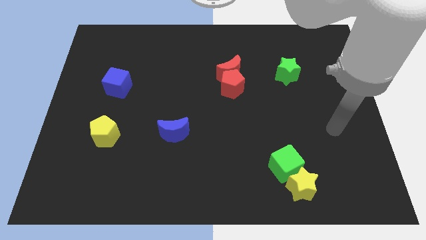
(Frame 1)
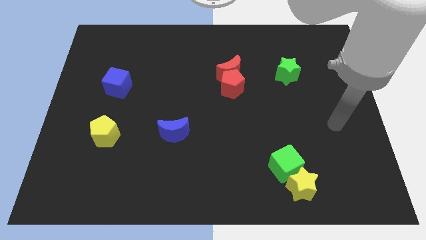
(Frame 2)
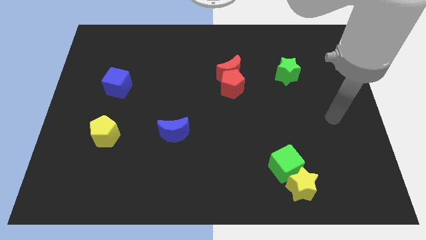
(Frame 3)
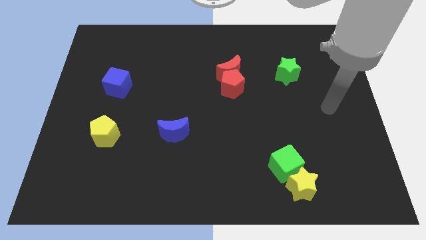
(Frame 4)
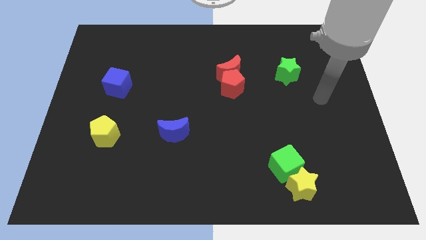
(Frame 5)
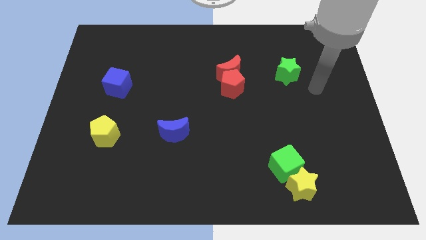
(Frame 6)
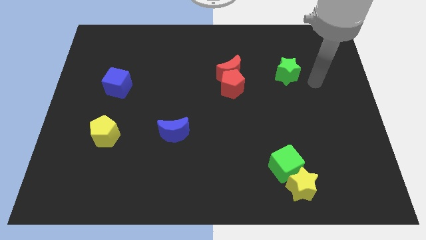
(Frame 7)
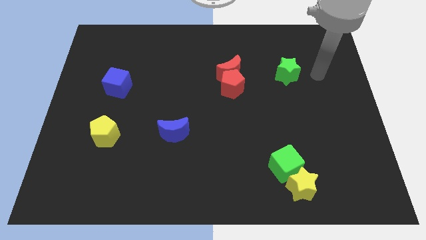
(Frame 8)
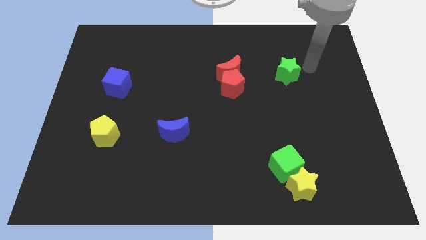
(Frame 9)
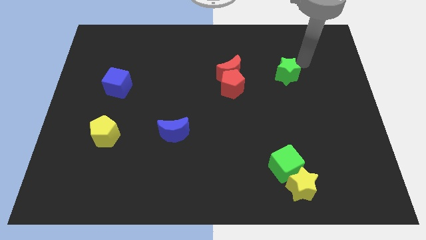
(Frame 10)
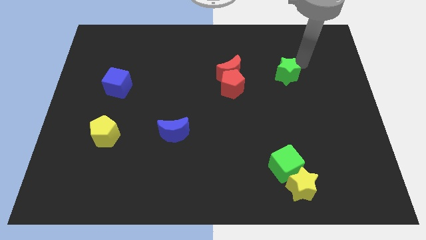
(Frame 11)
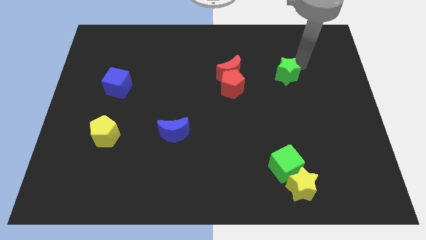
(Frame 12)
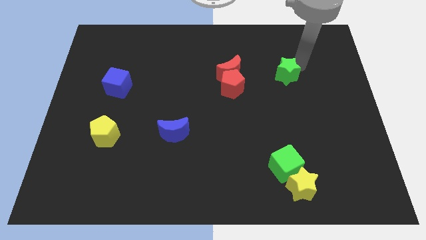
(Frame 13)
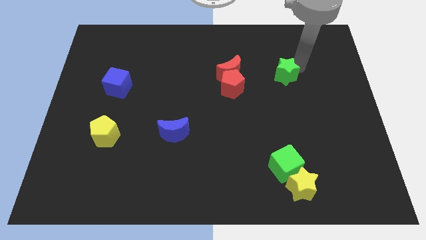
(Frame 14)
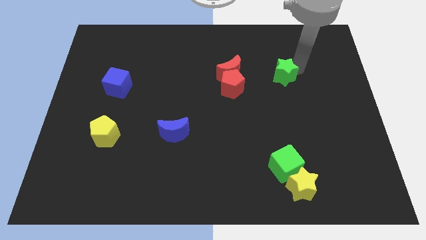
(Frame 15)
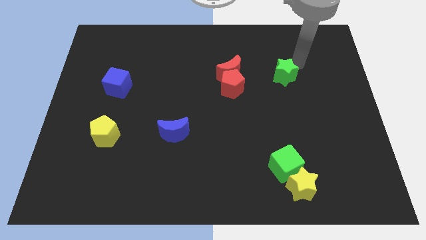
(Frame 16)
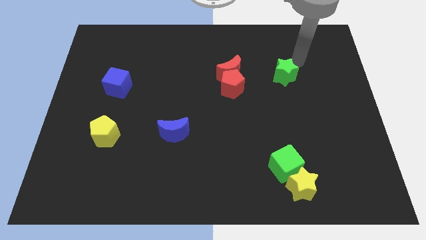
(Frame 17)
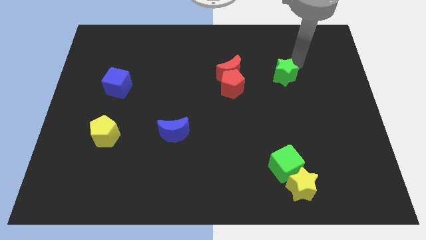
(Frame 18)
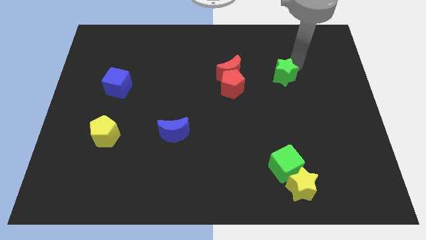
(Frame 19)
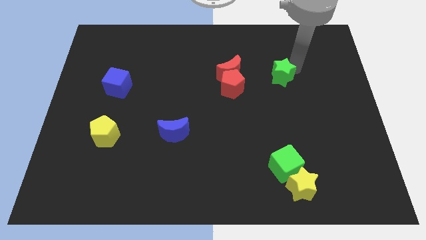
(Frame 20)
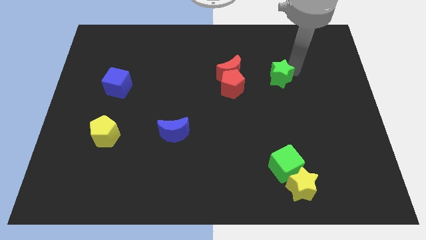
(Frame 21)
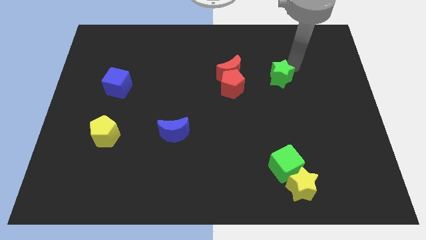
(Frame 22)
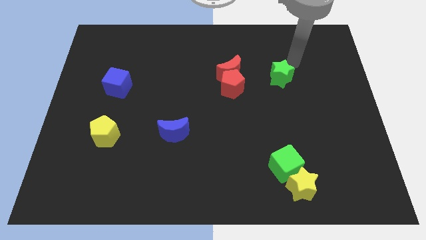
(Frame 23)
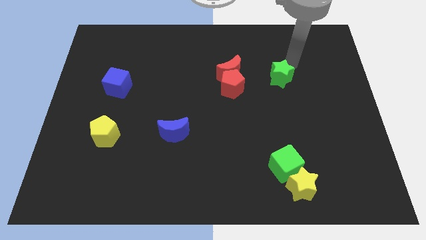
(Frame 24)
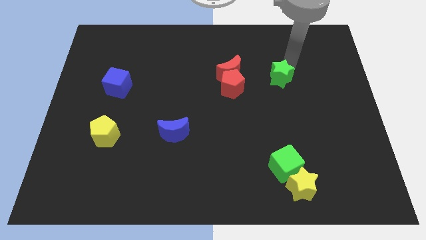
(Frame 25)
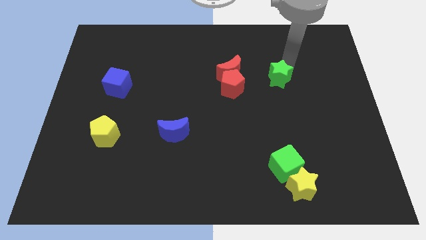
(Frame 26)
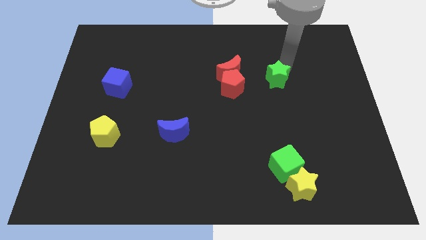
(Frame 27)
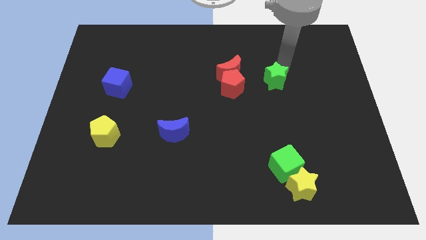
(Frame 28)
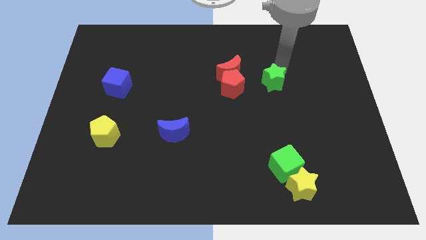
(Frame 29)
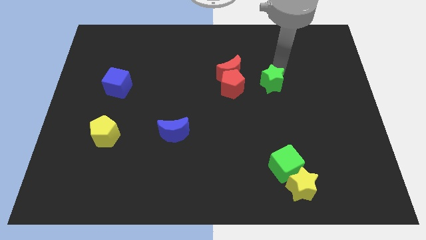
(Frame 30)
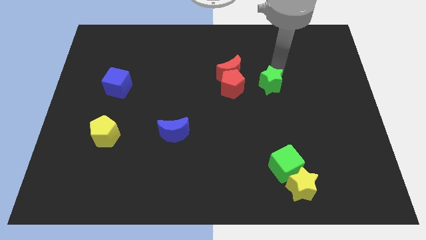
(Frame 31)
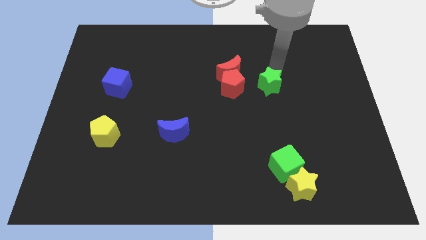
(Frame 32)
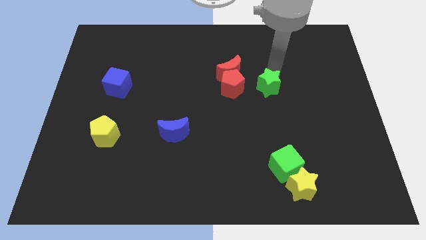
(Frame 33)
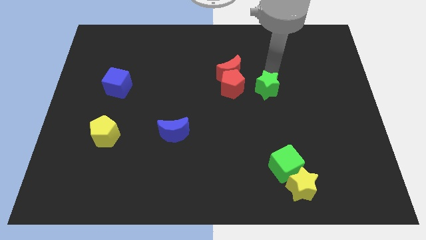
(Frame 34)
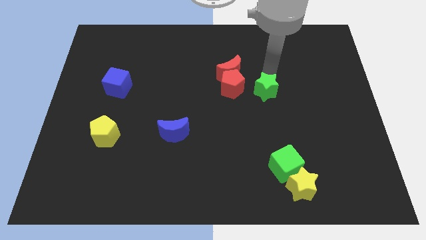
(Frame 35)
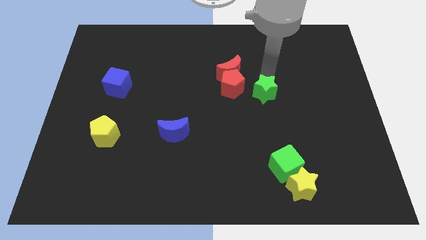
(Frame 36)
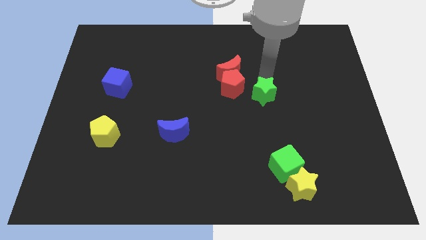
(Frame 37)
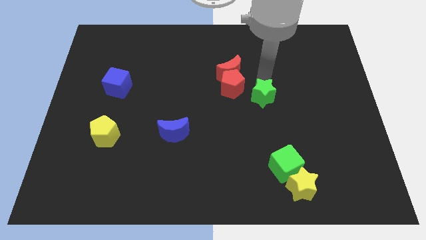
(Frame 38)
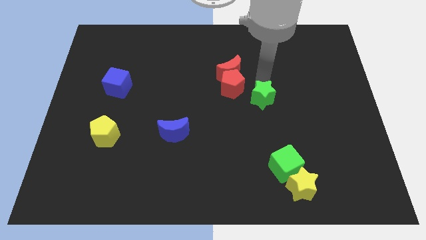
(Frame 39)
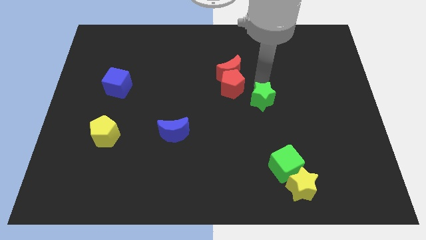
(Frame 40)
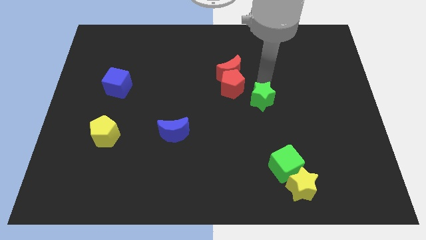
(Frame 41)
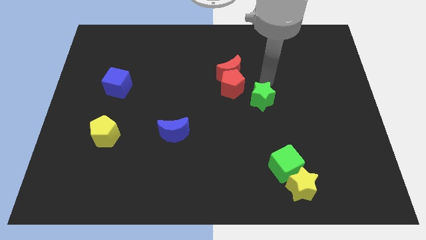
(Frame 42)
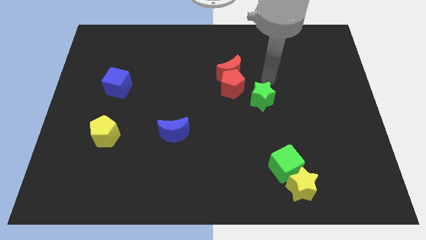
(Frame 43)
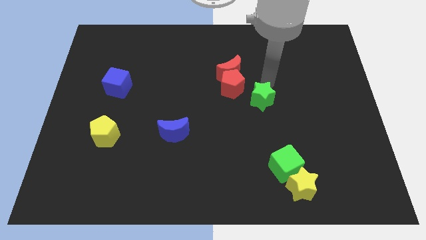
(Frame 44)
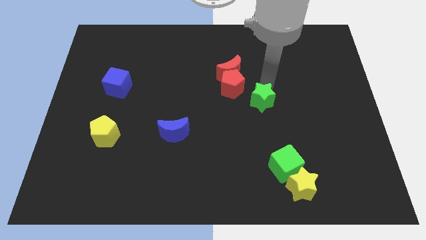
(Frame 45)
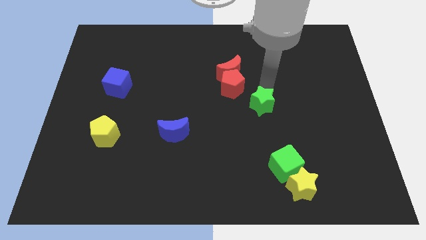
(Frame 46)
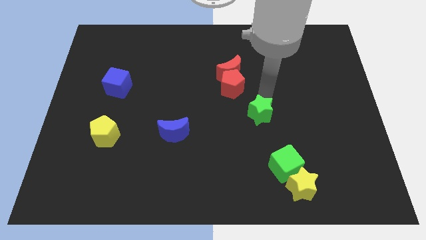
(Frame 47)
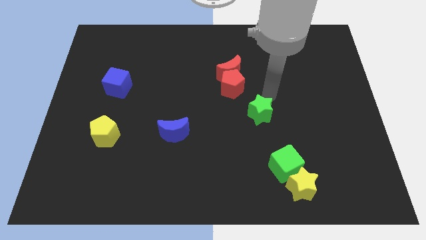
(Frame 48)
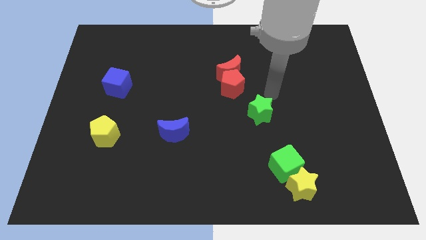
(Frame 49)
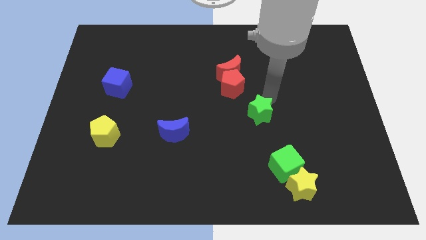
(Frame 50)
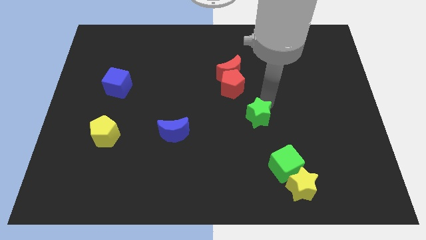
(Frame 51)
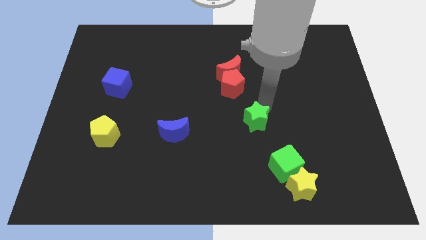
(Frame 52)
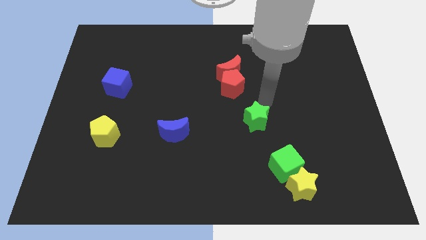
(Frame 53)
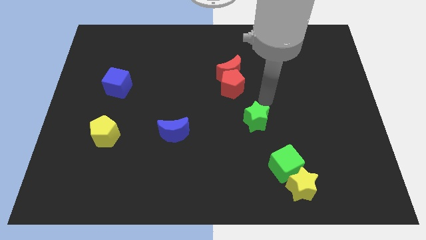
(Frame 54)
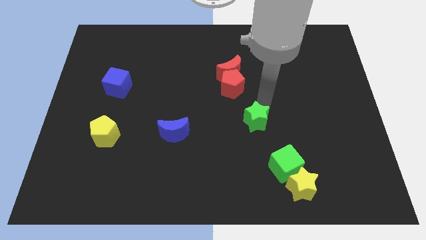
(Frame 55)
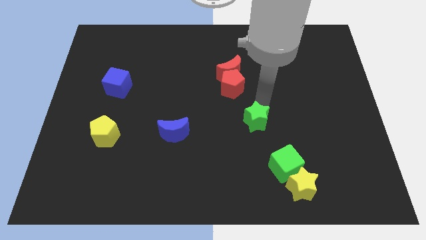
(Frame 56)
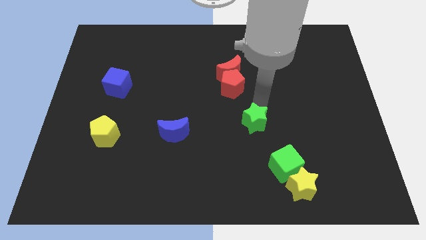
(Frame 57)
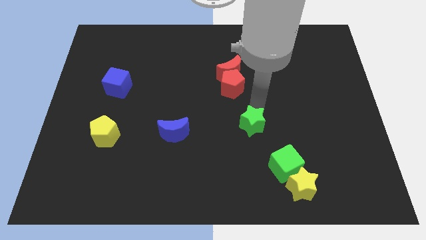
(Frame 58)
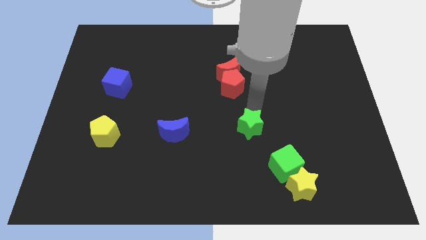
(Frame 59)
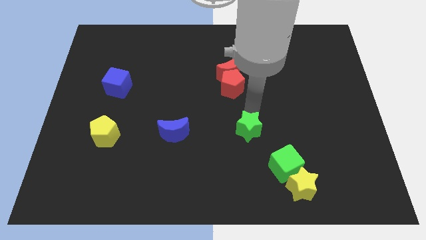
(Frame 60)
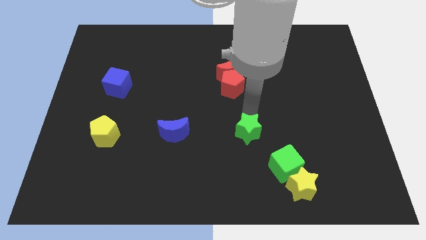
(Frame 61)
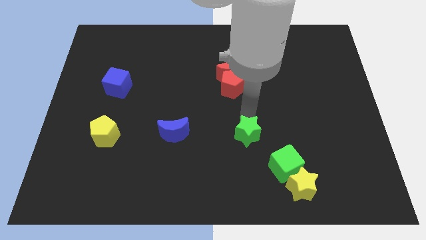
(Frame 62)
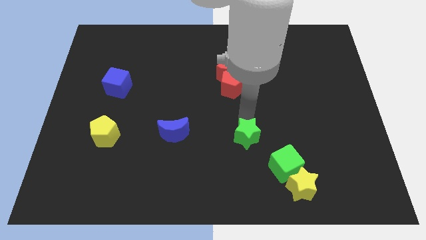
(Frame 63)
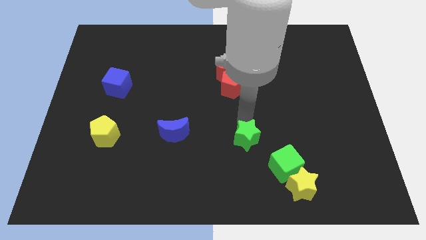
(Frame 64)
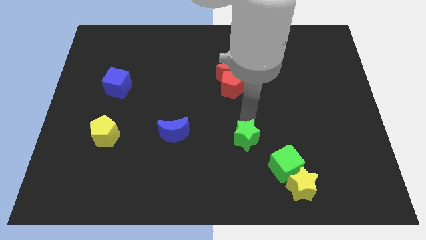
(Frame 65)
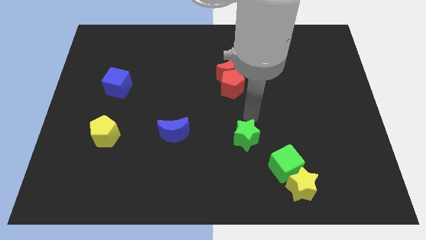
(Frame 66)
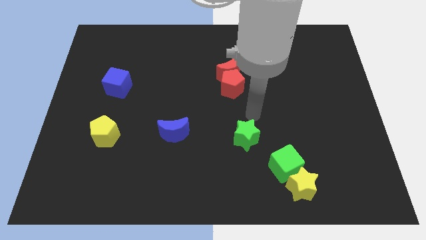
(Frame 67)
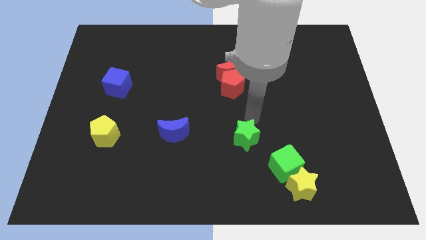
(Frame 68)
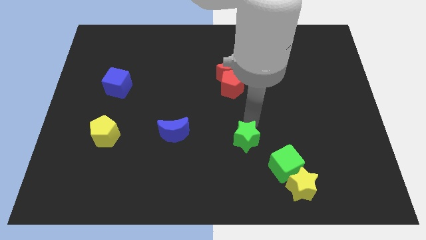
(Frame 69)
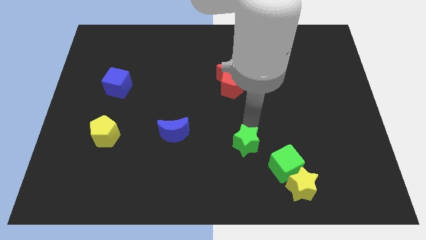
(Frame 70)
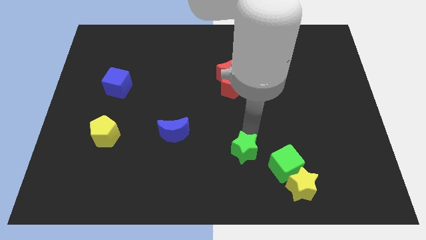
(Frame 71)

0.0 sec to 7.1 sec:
put the green star to the left side of the green cube
